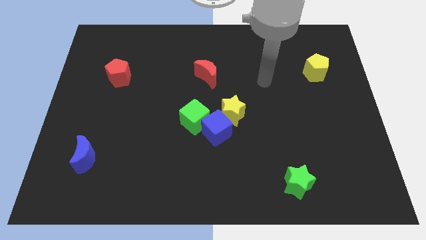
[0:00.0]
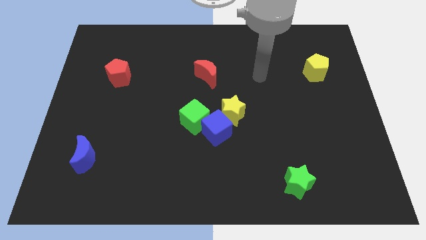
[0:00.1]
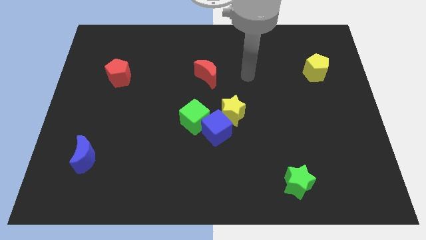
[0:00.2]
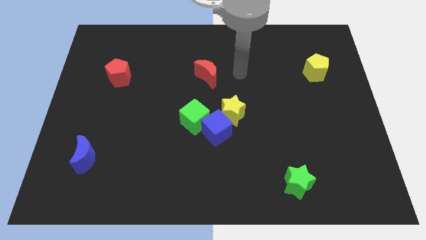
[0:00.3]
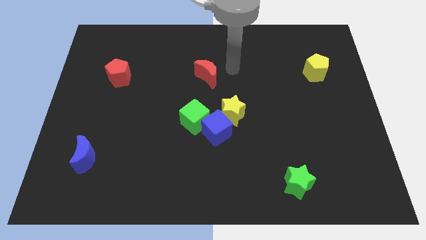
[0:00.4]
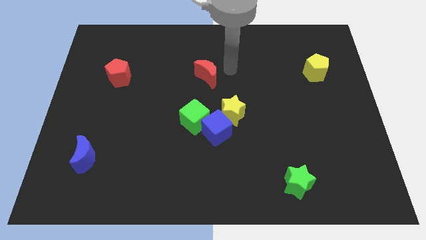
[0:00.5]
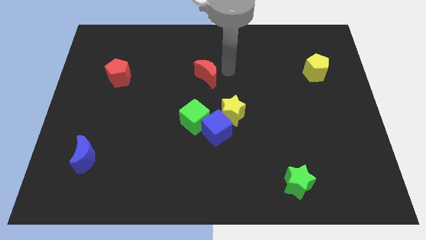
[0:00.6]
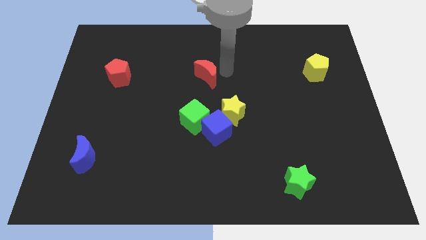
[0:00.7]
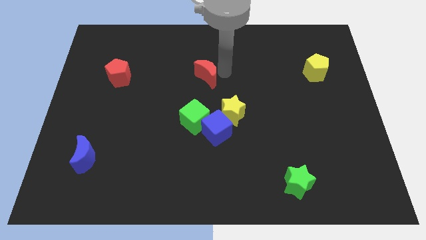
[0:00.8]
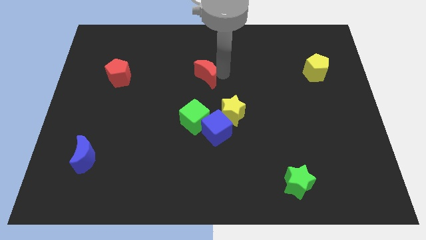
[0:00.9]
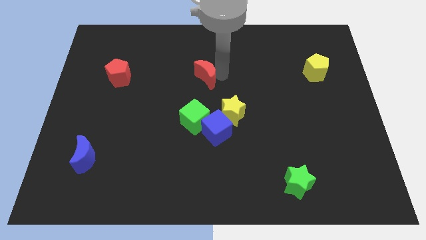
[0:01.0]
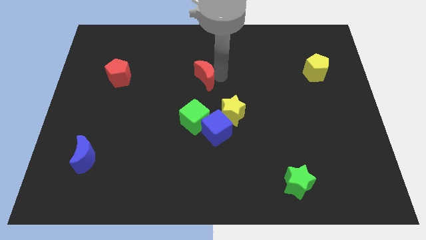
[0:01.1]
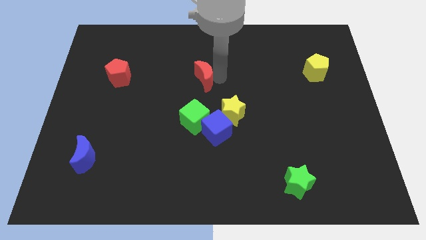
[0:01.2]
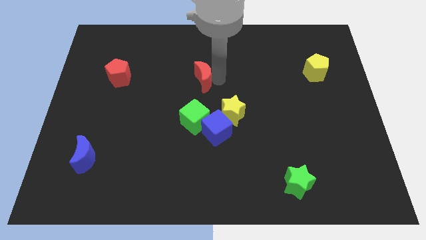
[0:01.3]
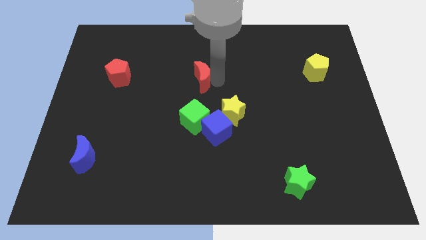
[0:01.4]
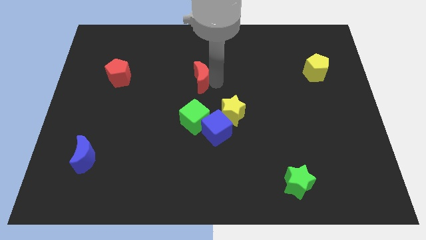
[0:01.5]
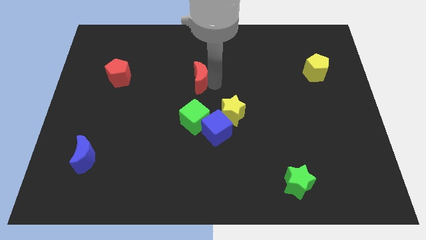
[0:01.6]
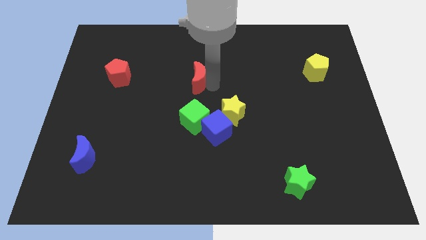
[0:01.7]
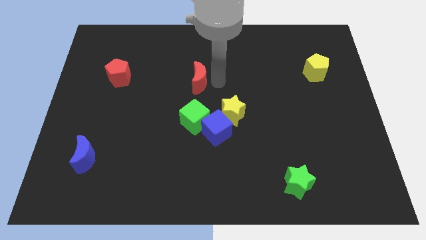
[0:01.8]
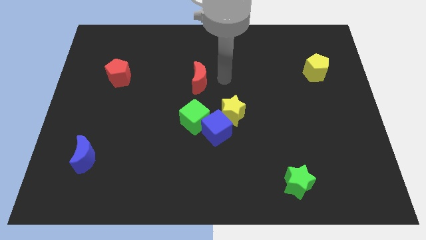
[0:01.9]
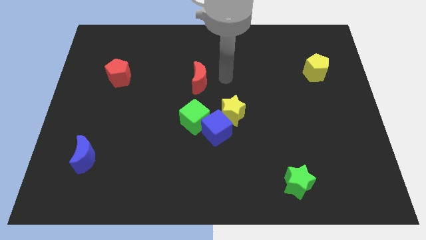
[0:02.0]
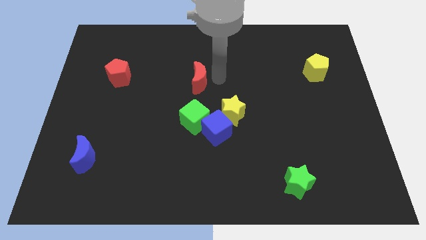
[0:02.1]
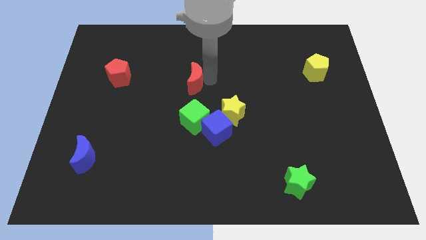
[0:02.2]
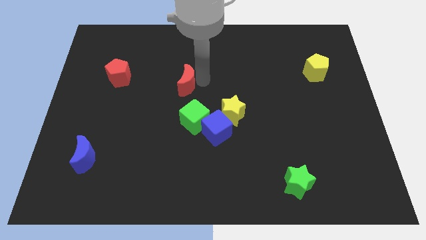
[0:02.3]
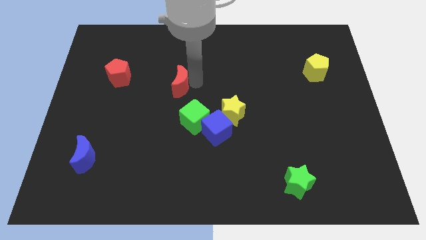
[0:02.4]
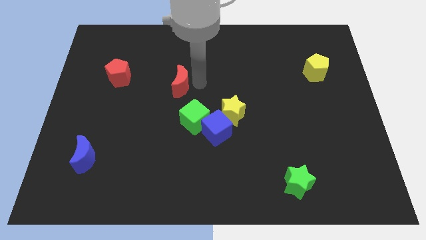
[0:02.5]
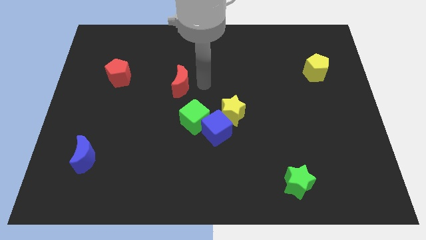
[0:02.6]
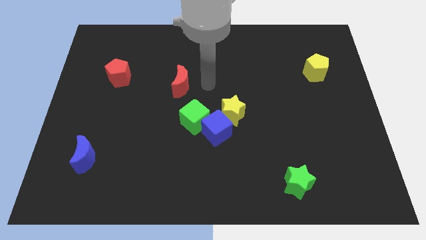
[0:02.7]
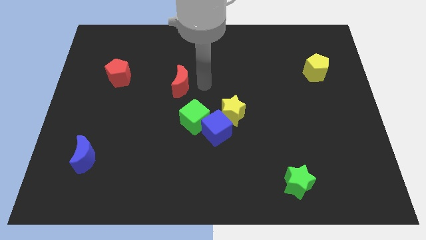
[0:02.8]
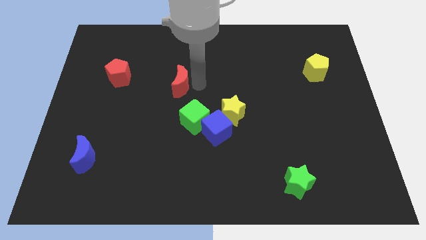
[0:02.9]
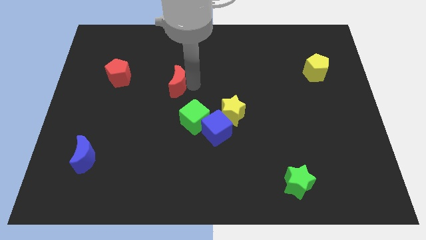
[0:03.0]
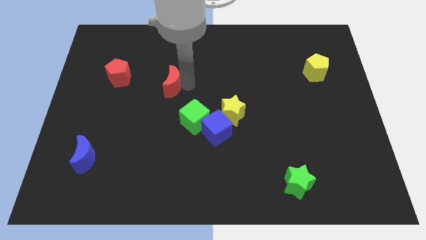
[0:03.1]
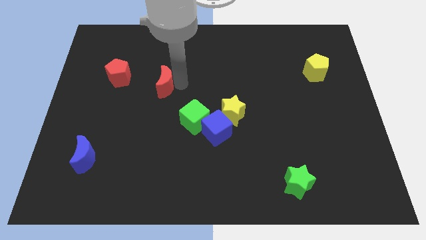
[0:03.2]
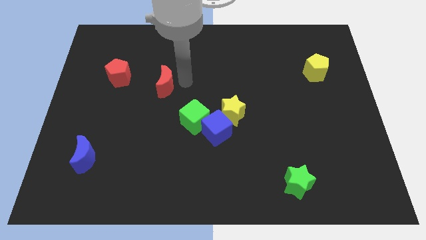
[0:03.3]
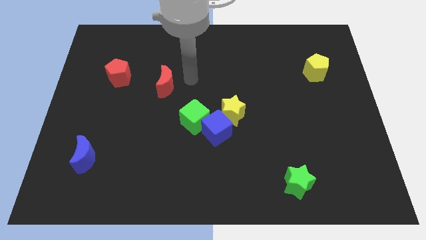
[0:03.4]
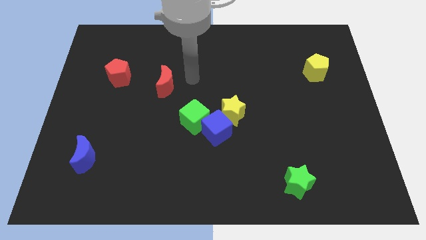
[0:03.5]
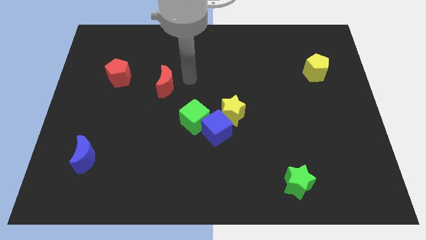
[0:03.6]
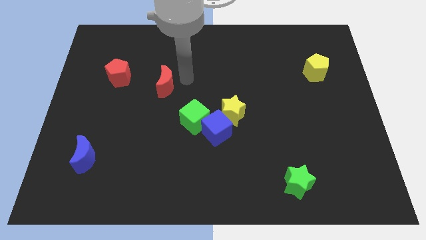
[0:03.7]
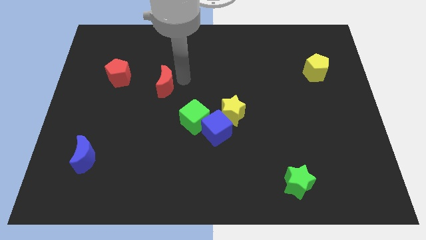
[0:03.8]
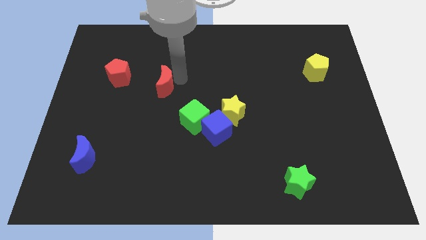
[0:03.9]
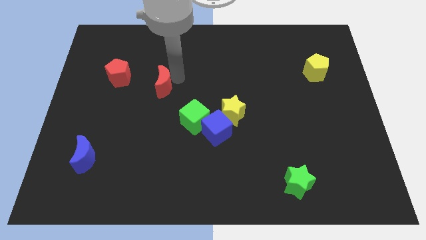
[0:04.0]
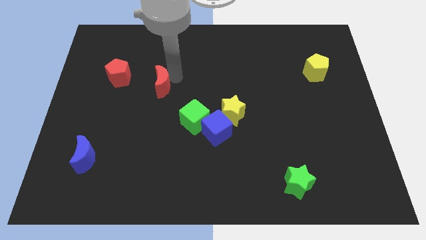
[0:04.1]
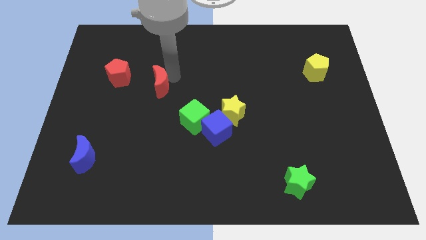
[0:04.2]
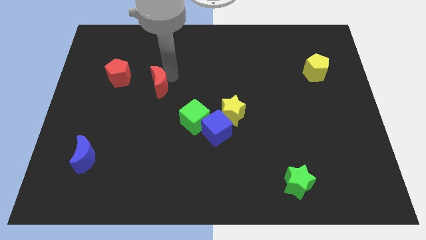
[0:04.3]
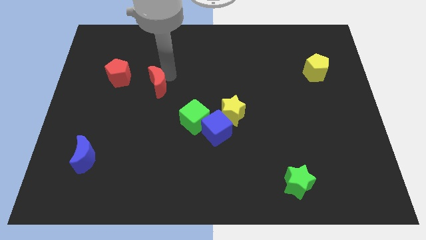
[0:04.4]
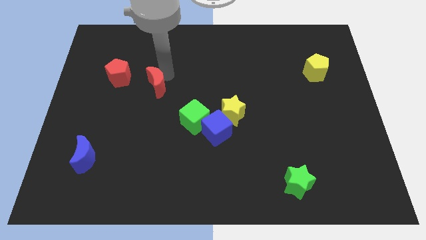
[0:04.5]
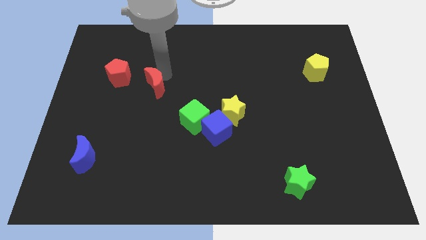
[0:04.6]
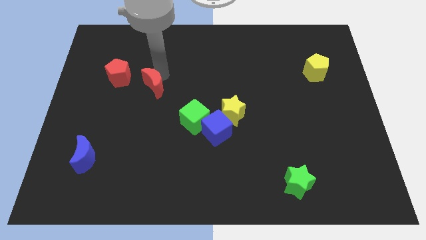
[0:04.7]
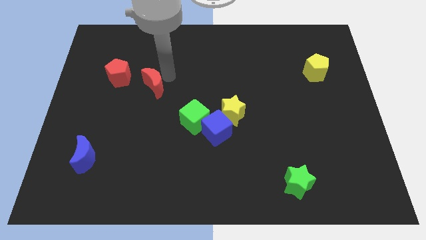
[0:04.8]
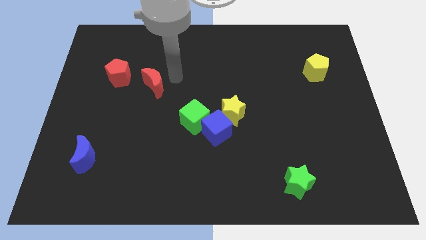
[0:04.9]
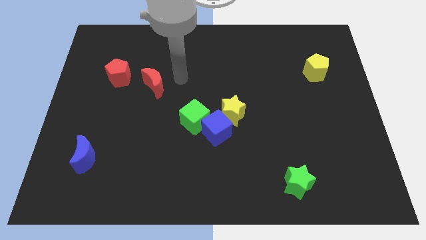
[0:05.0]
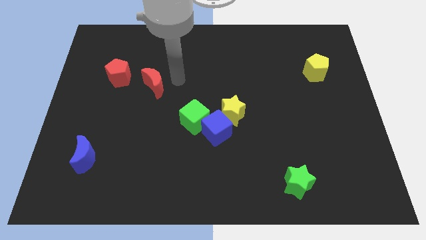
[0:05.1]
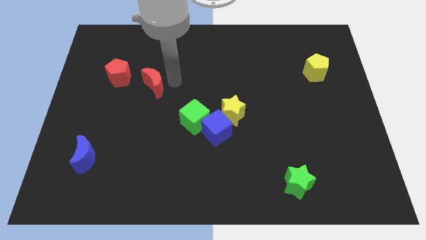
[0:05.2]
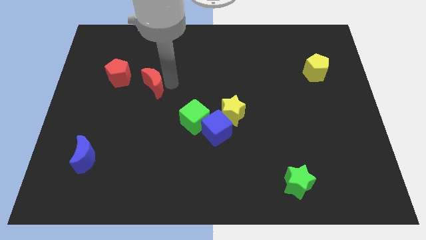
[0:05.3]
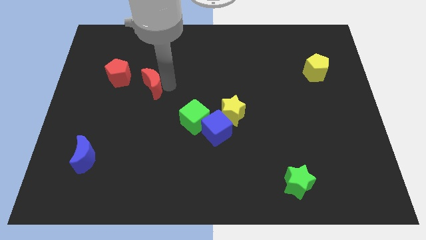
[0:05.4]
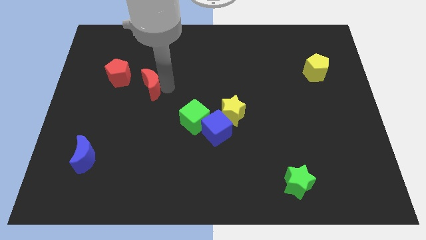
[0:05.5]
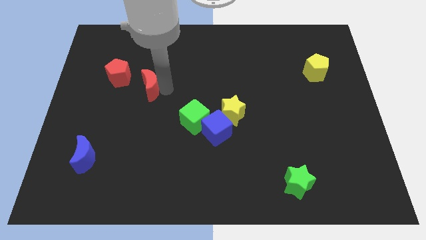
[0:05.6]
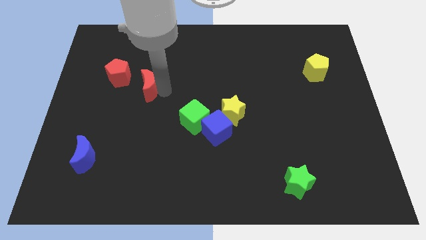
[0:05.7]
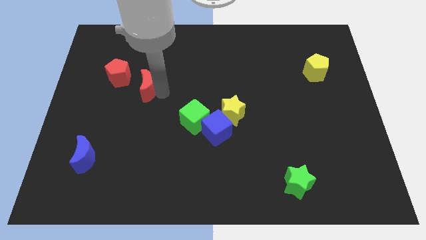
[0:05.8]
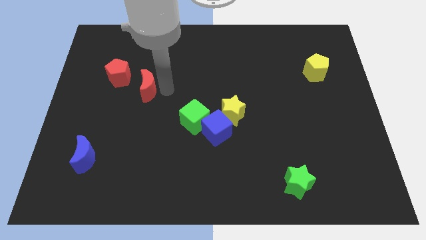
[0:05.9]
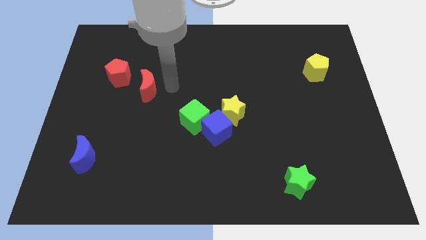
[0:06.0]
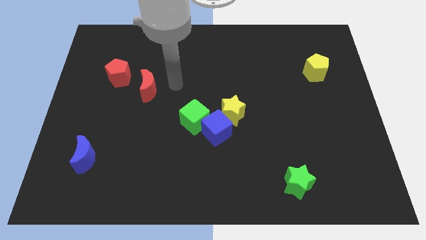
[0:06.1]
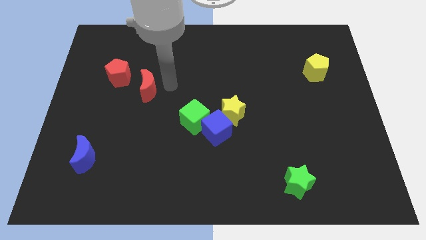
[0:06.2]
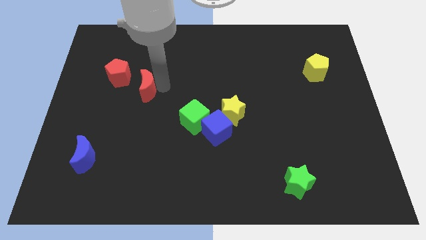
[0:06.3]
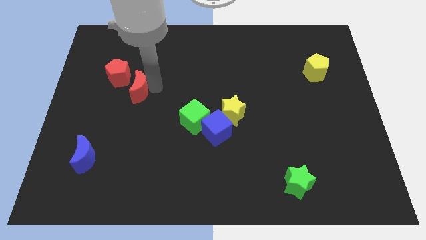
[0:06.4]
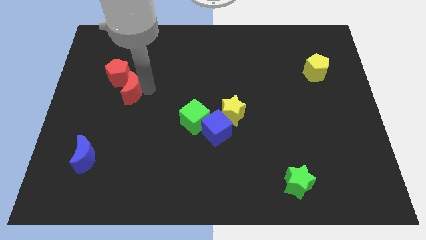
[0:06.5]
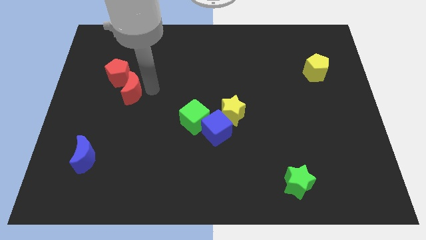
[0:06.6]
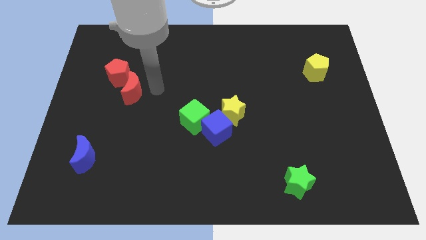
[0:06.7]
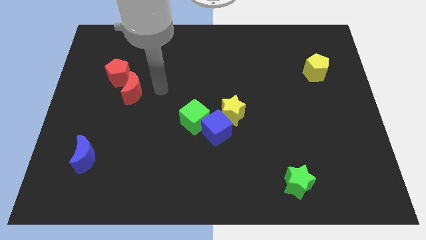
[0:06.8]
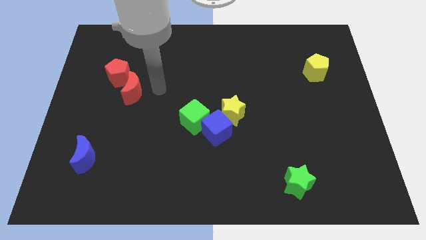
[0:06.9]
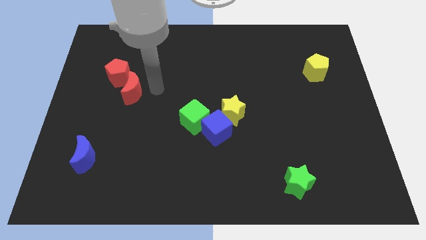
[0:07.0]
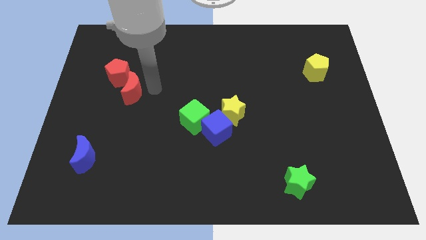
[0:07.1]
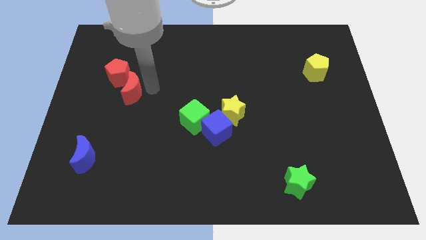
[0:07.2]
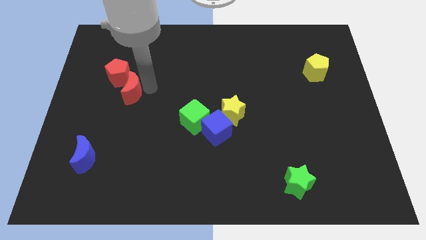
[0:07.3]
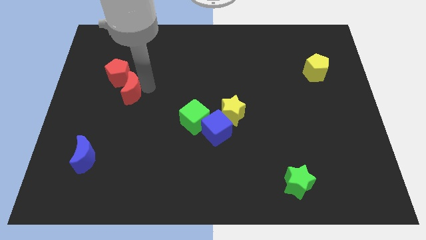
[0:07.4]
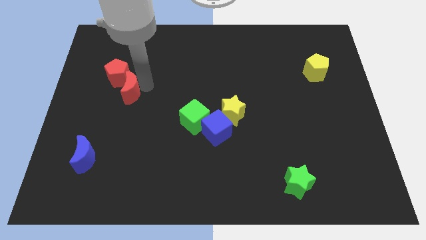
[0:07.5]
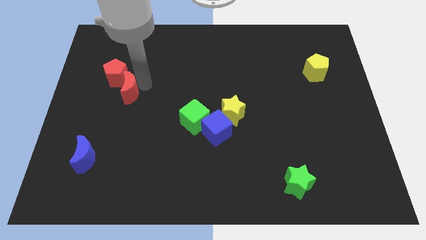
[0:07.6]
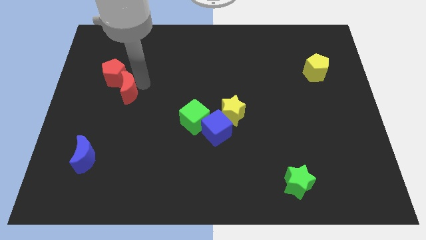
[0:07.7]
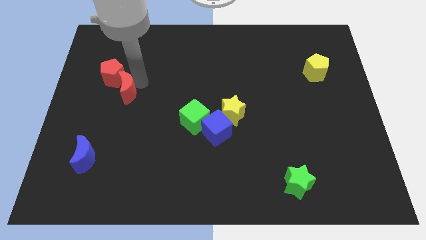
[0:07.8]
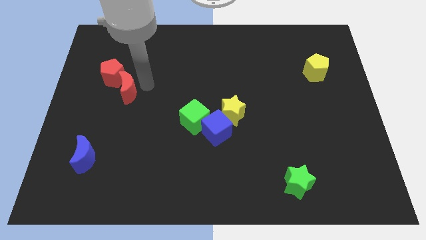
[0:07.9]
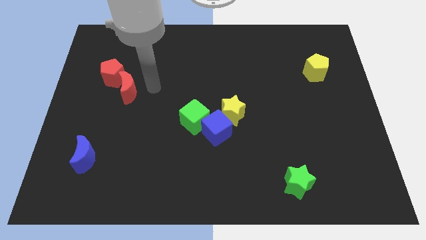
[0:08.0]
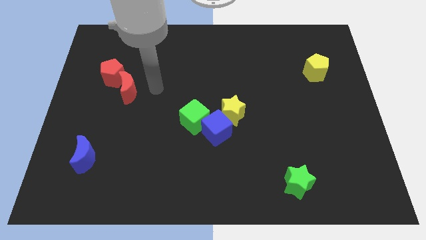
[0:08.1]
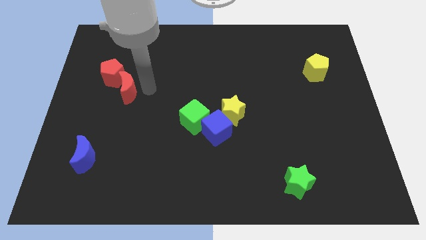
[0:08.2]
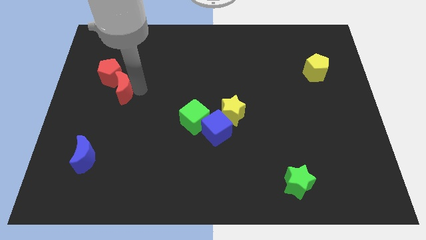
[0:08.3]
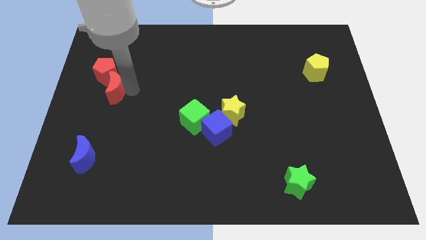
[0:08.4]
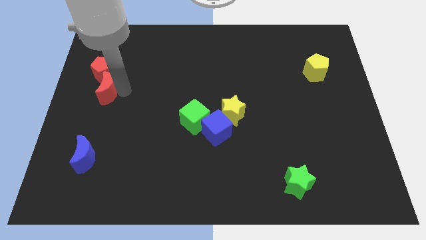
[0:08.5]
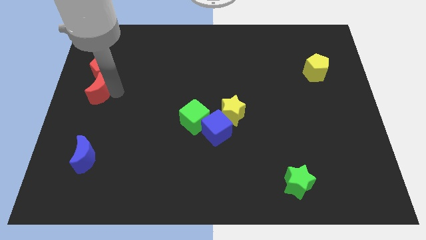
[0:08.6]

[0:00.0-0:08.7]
push the red moon to the bottom left side of the red pentagon
